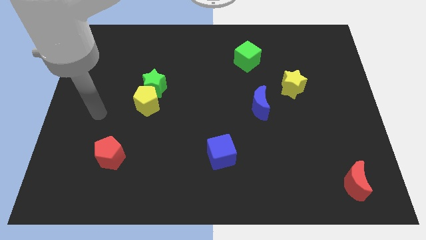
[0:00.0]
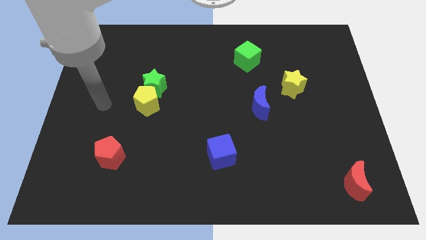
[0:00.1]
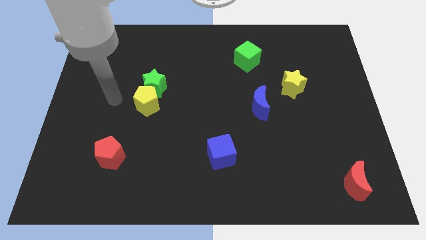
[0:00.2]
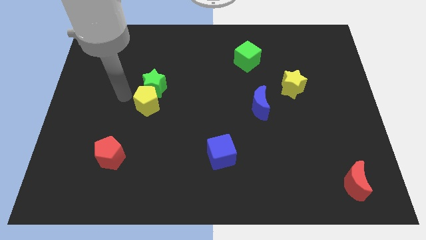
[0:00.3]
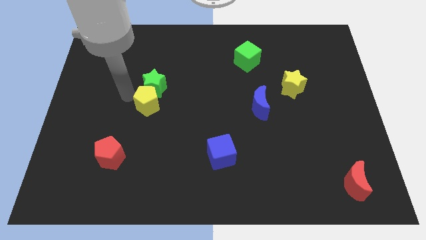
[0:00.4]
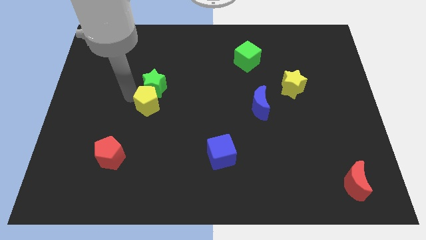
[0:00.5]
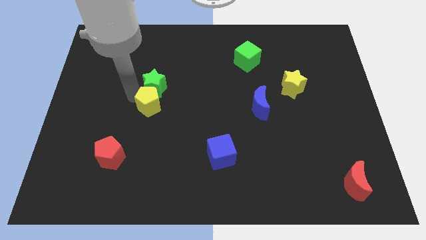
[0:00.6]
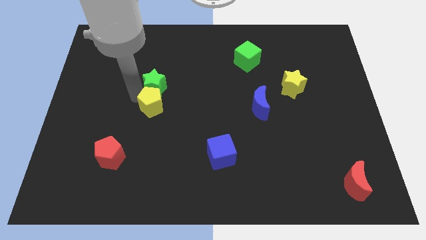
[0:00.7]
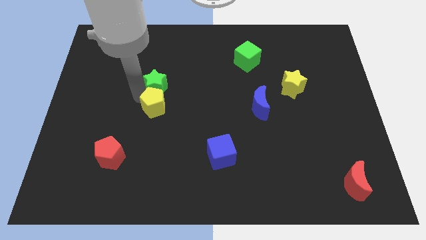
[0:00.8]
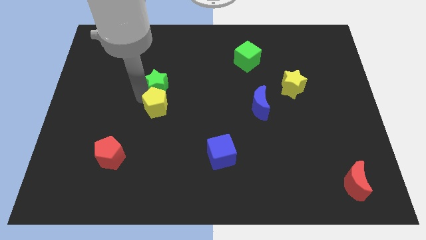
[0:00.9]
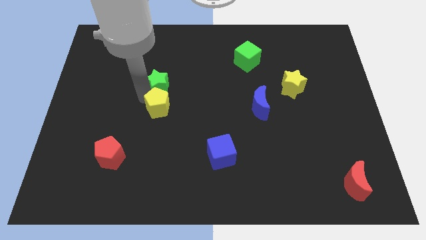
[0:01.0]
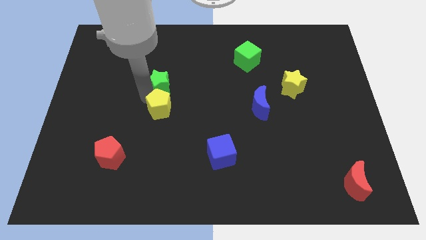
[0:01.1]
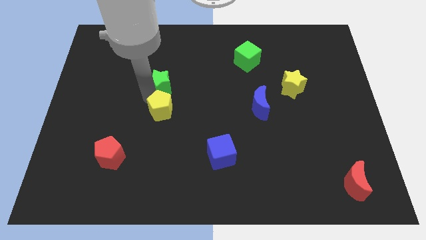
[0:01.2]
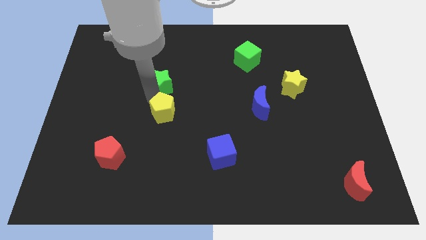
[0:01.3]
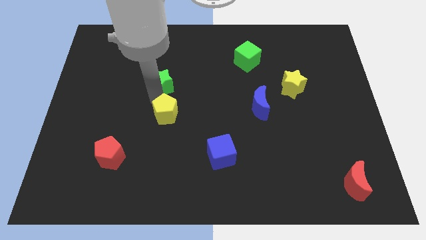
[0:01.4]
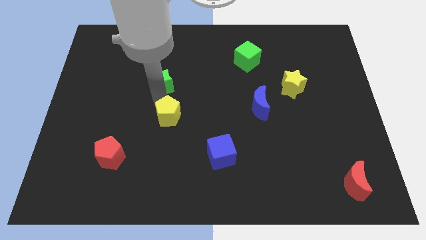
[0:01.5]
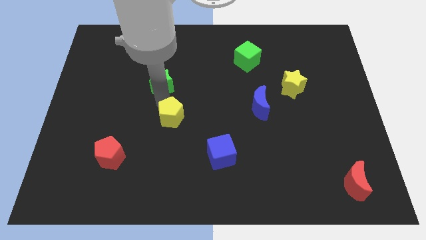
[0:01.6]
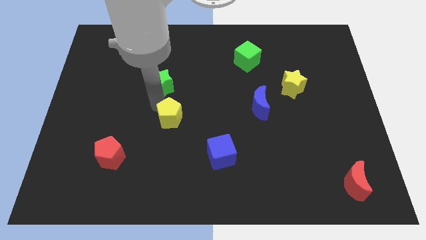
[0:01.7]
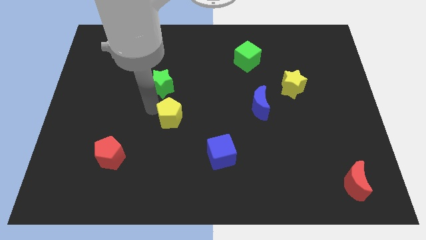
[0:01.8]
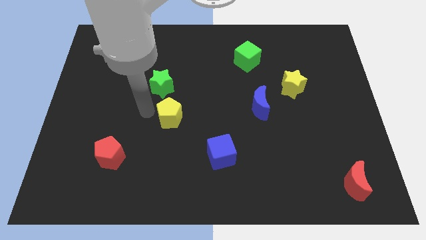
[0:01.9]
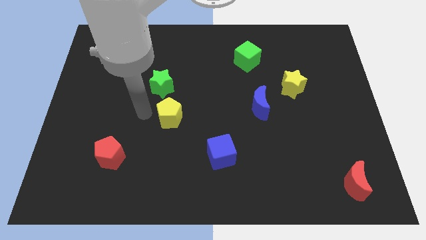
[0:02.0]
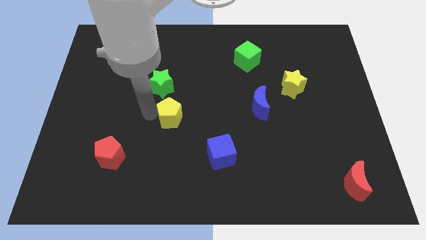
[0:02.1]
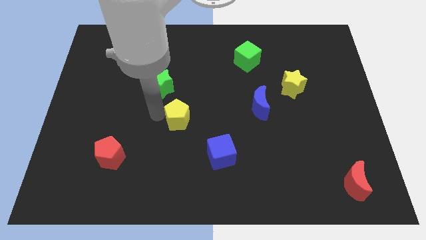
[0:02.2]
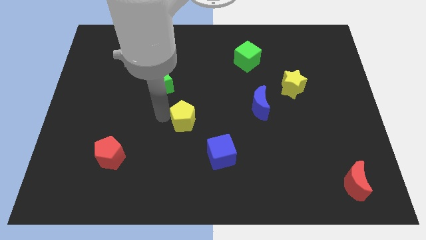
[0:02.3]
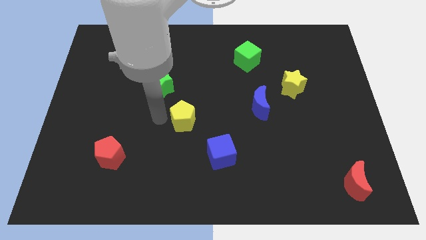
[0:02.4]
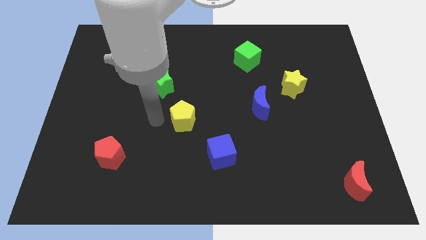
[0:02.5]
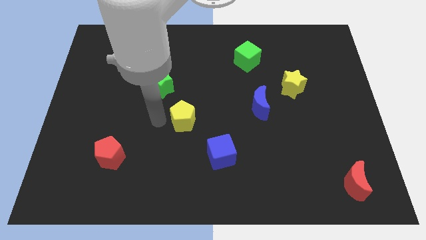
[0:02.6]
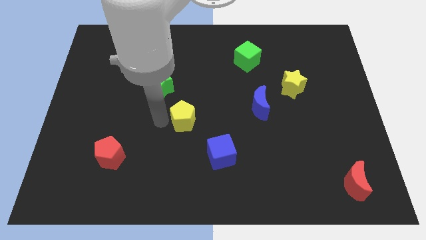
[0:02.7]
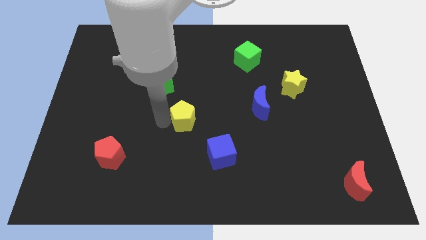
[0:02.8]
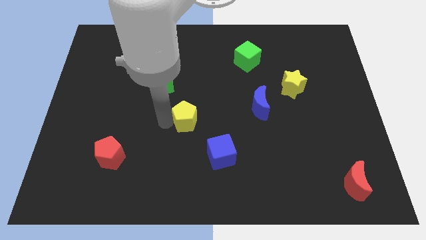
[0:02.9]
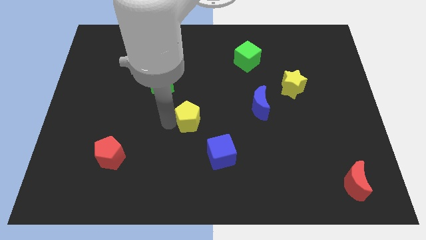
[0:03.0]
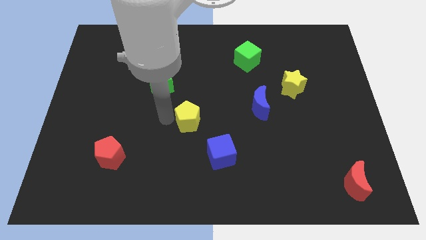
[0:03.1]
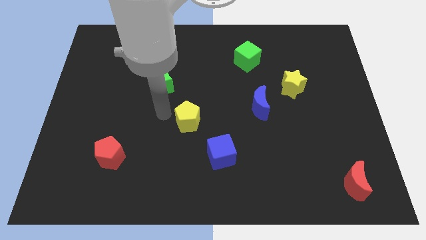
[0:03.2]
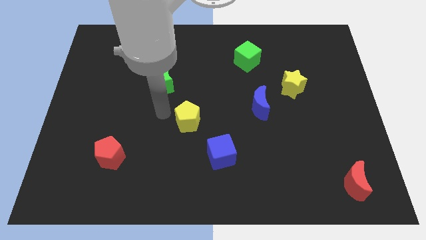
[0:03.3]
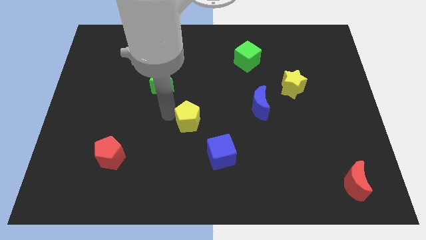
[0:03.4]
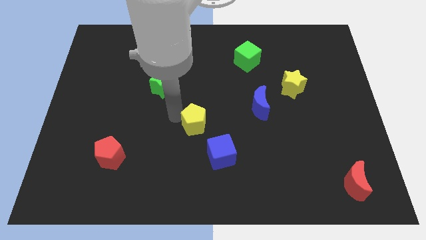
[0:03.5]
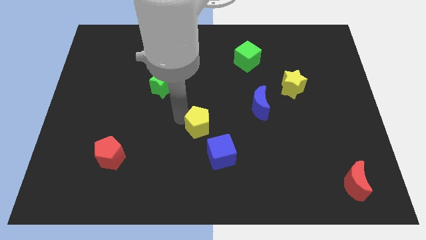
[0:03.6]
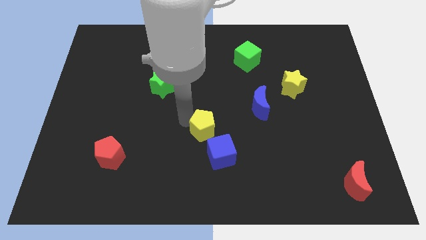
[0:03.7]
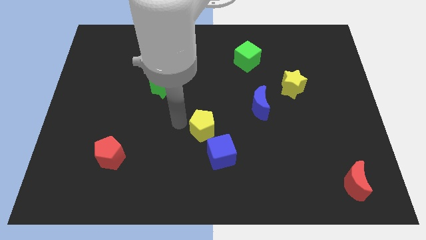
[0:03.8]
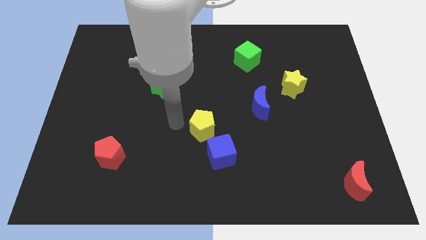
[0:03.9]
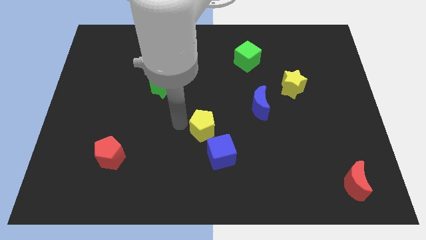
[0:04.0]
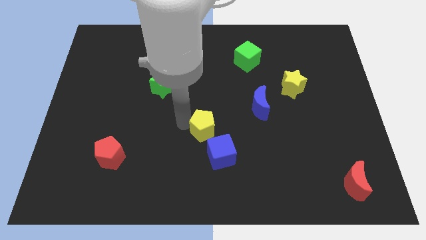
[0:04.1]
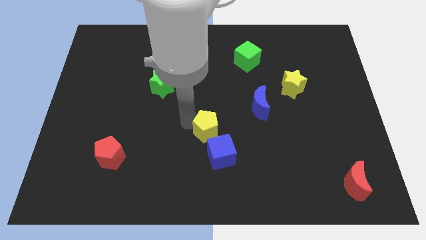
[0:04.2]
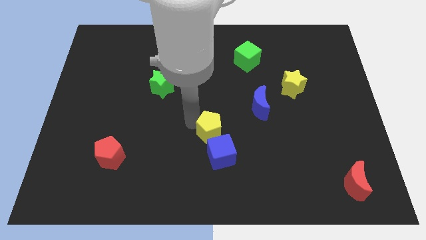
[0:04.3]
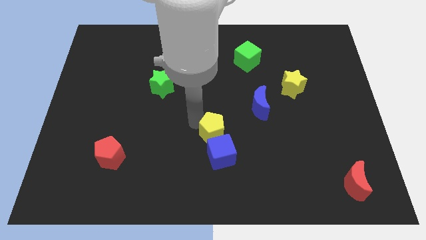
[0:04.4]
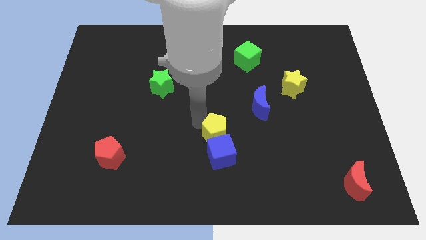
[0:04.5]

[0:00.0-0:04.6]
move the yellow pentagon to the top right side of the blue cube

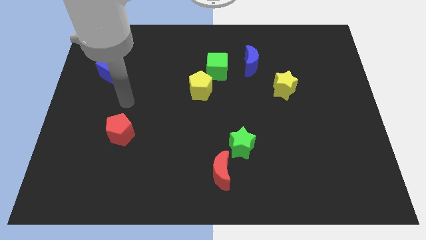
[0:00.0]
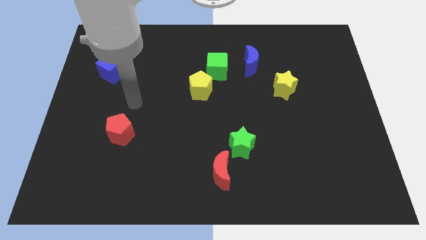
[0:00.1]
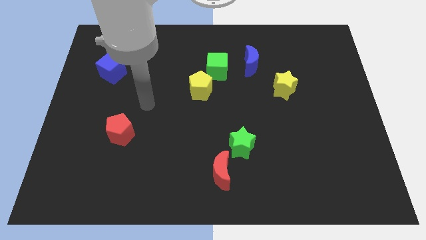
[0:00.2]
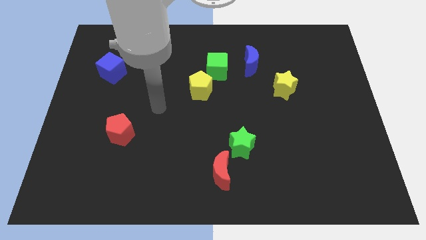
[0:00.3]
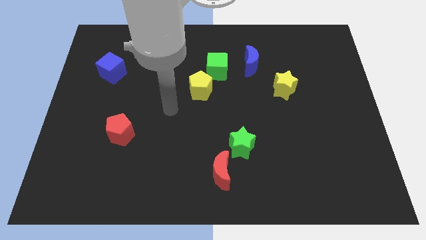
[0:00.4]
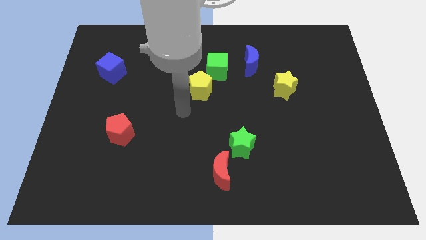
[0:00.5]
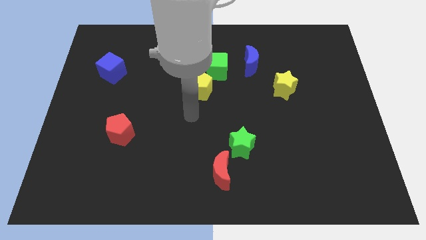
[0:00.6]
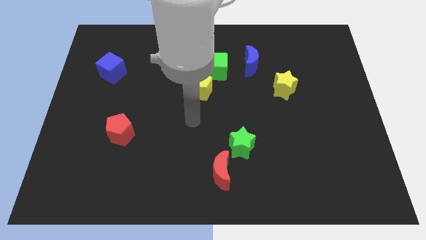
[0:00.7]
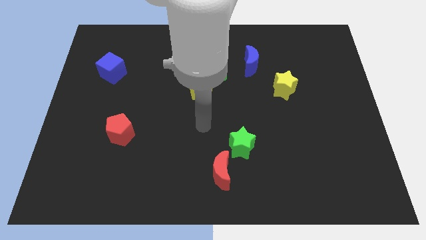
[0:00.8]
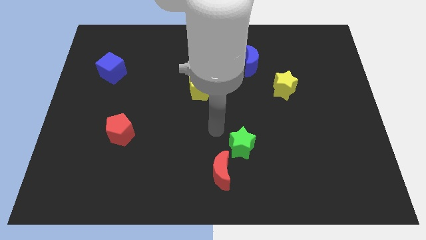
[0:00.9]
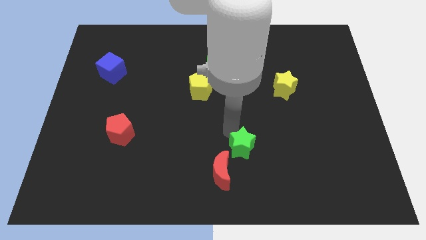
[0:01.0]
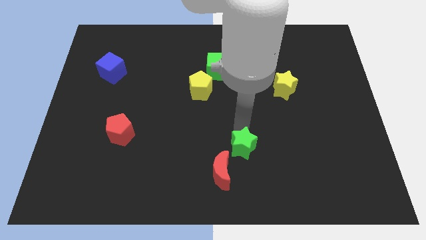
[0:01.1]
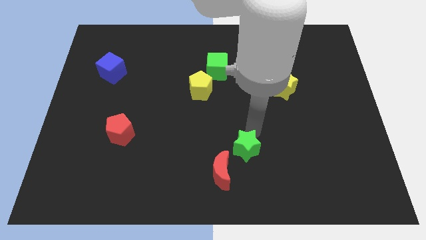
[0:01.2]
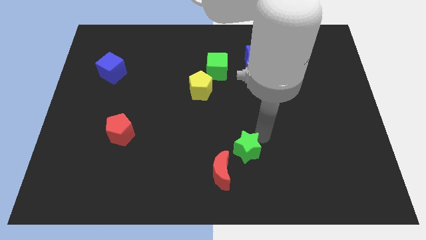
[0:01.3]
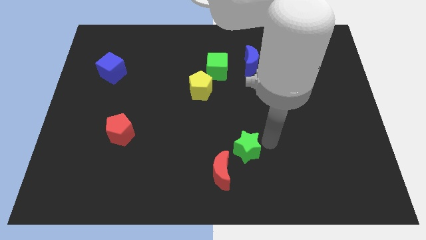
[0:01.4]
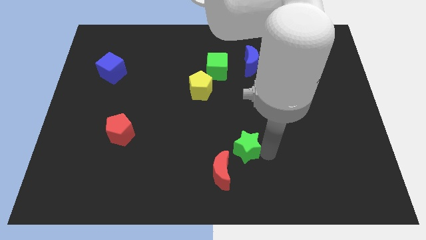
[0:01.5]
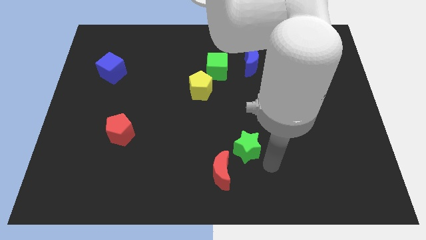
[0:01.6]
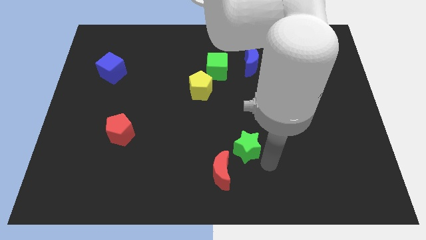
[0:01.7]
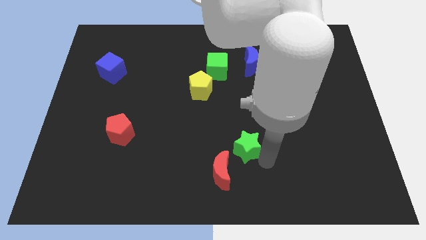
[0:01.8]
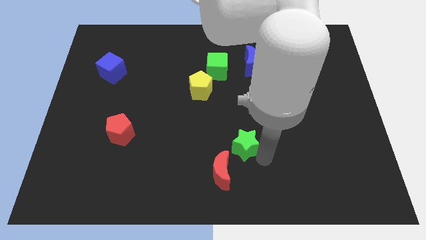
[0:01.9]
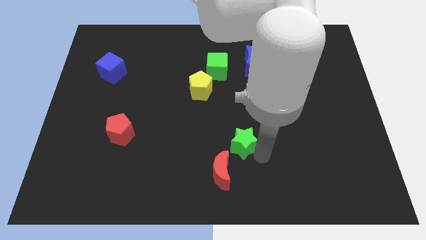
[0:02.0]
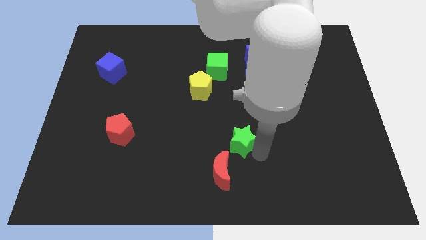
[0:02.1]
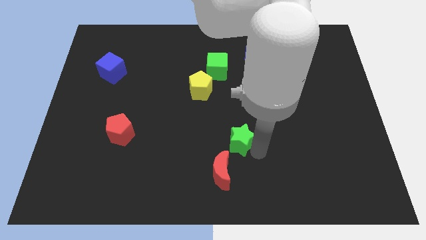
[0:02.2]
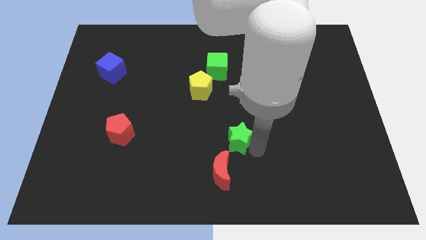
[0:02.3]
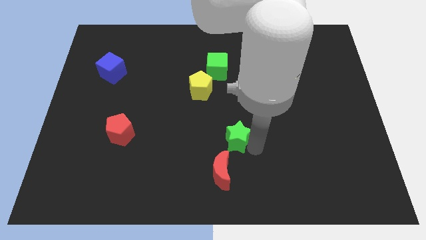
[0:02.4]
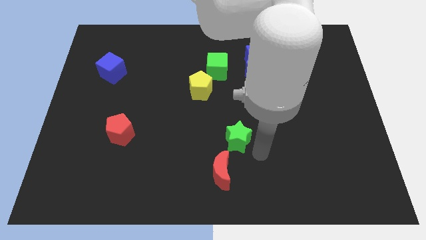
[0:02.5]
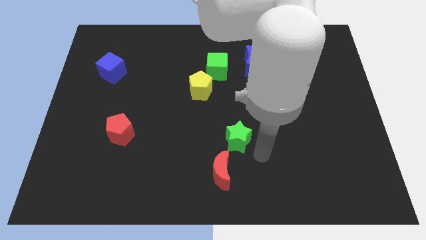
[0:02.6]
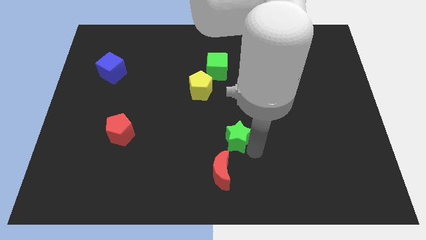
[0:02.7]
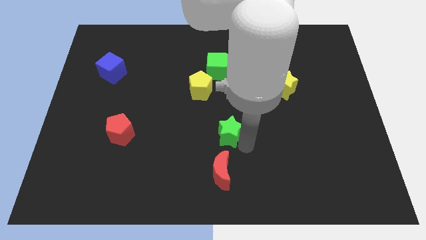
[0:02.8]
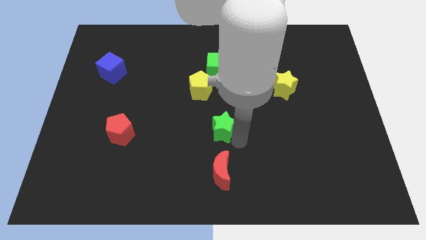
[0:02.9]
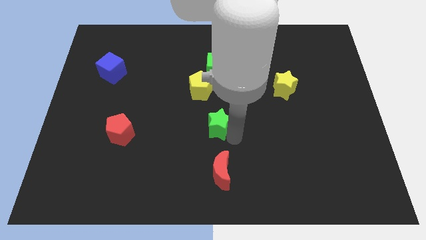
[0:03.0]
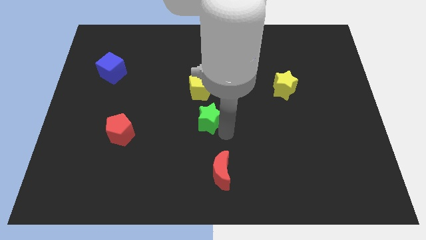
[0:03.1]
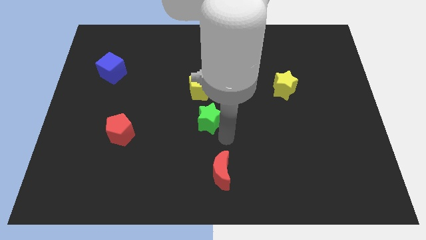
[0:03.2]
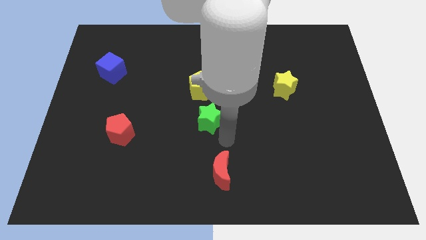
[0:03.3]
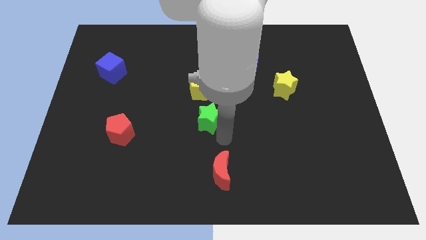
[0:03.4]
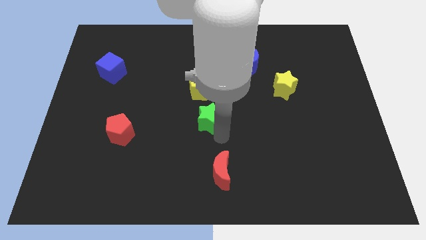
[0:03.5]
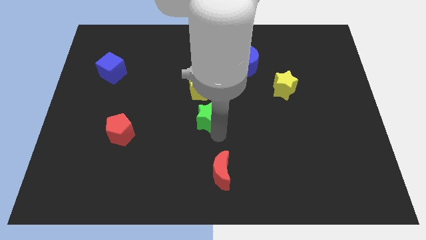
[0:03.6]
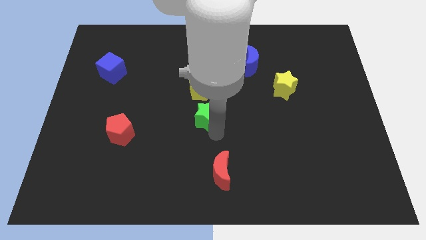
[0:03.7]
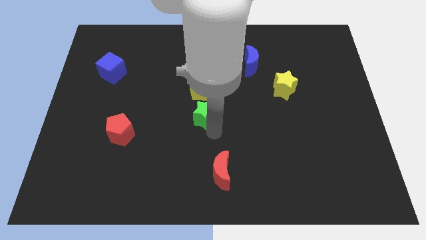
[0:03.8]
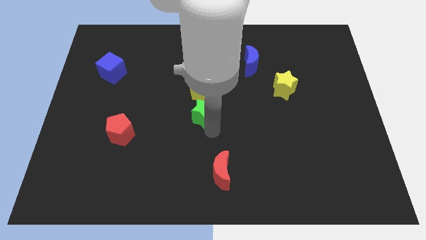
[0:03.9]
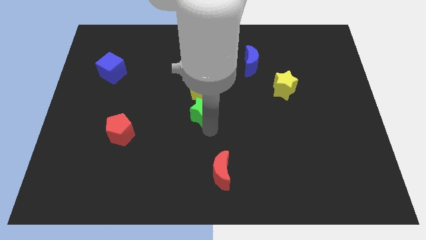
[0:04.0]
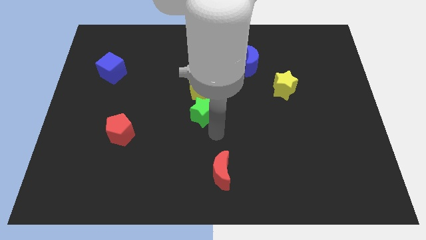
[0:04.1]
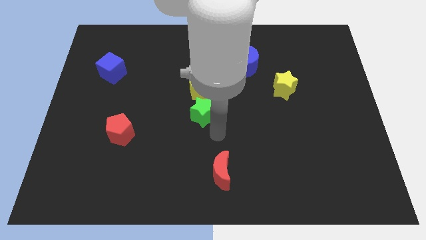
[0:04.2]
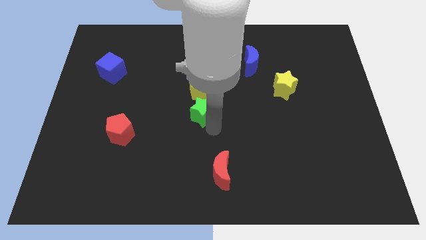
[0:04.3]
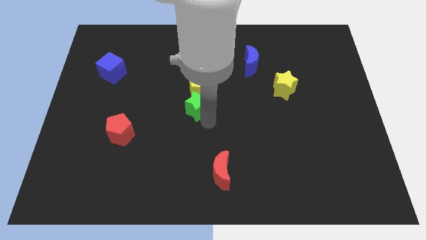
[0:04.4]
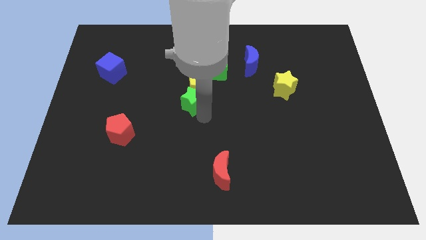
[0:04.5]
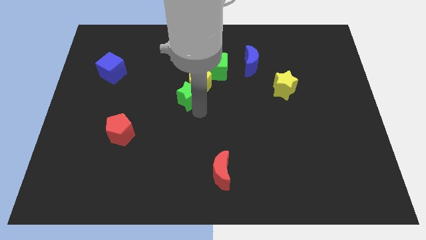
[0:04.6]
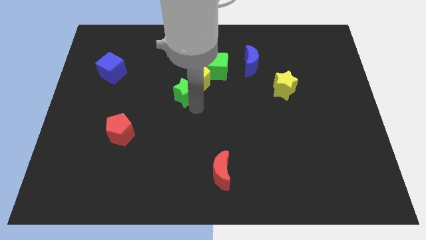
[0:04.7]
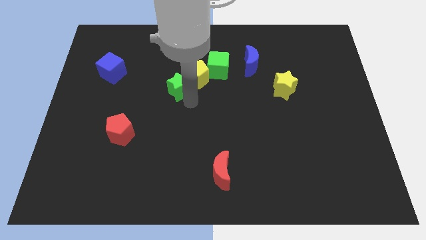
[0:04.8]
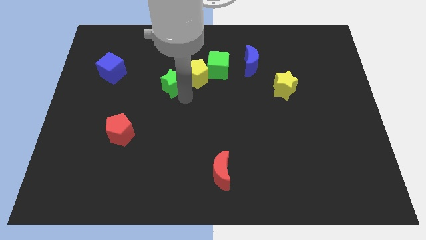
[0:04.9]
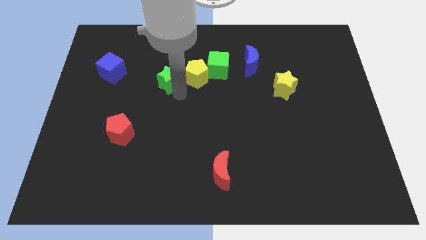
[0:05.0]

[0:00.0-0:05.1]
slide the green star to the left side of the green cube
